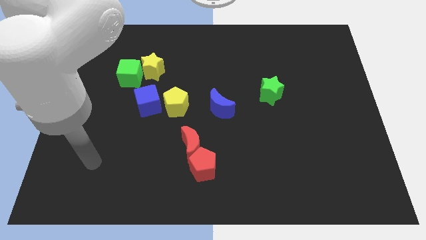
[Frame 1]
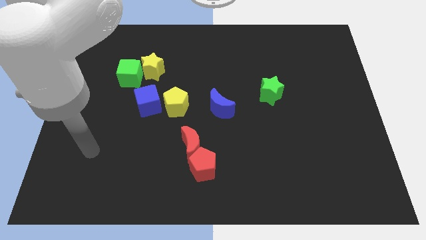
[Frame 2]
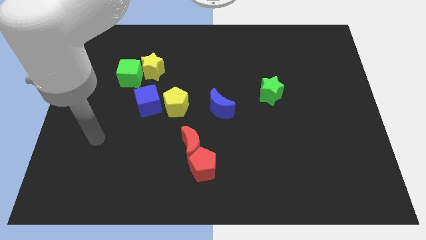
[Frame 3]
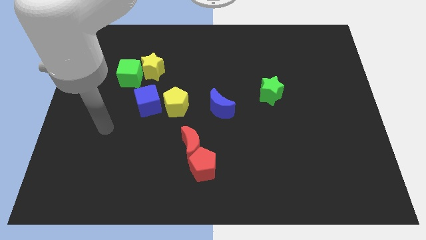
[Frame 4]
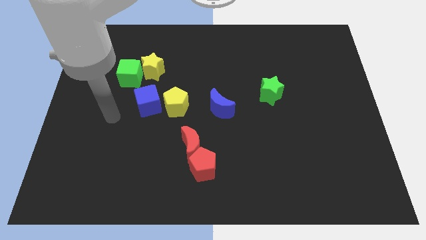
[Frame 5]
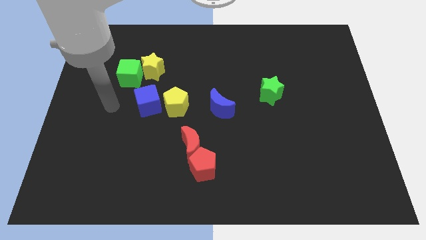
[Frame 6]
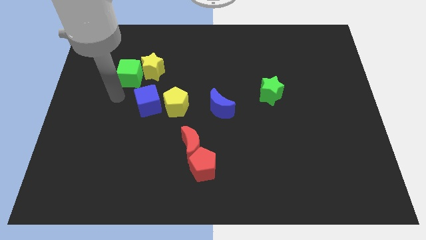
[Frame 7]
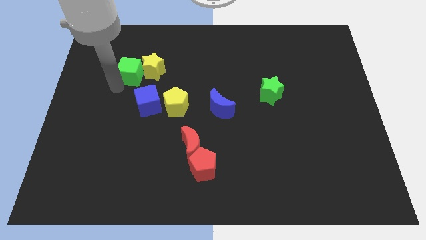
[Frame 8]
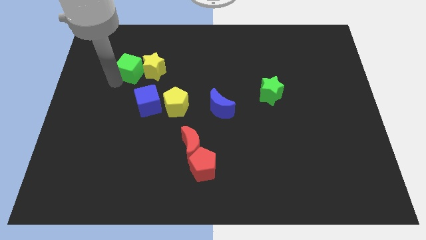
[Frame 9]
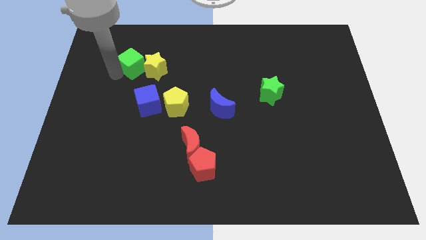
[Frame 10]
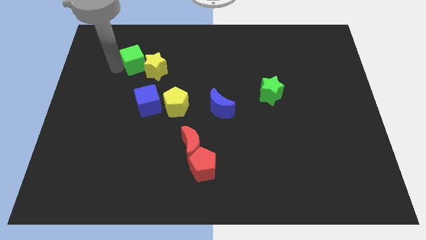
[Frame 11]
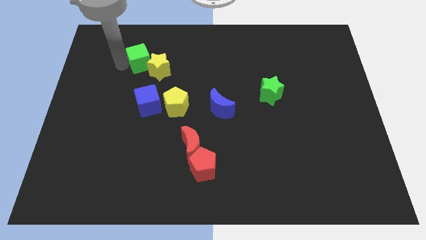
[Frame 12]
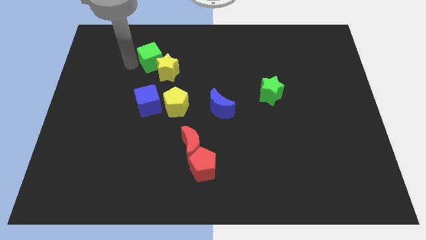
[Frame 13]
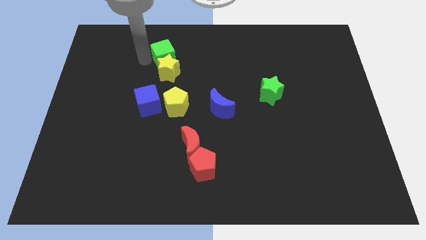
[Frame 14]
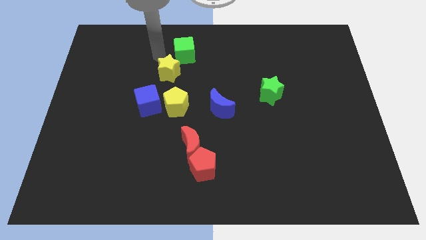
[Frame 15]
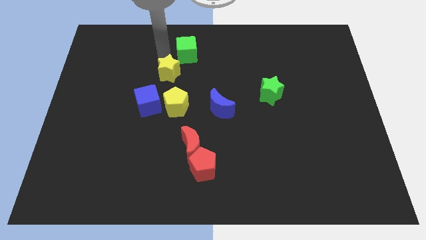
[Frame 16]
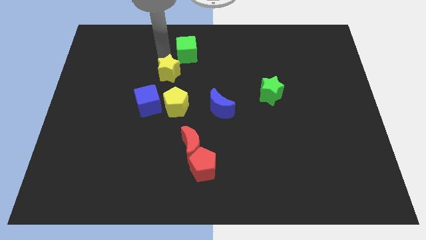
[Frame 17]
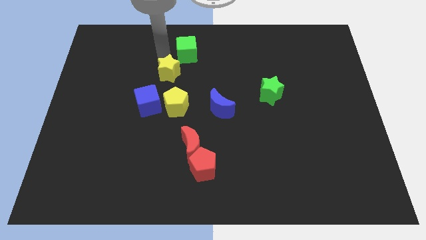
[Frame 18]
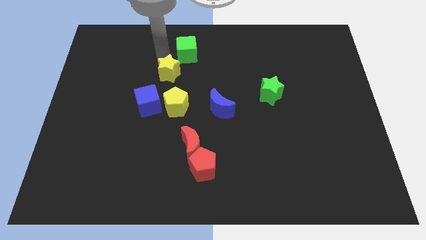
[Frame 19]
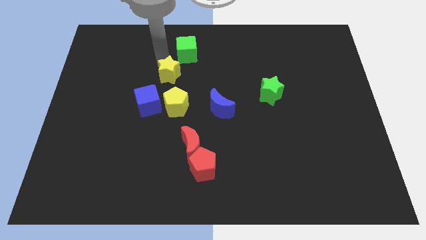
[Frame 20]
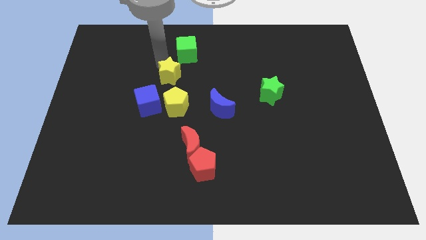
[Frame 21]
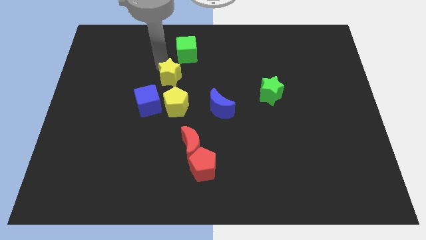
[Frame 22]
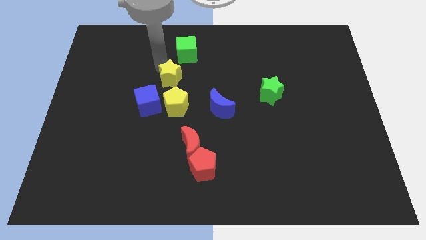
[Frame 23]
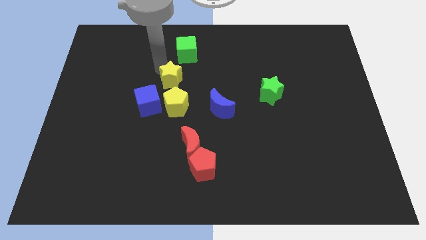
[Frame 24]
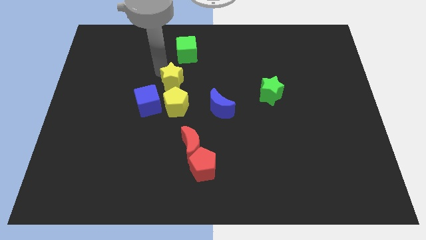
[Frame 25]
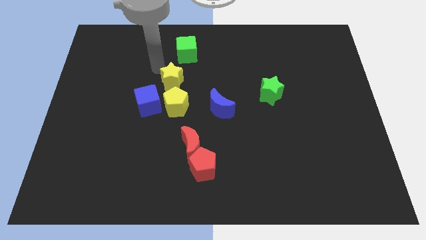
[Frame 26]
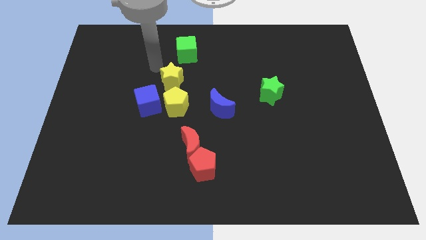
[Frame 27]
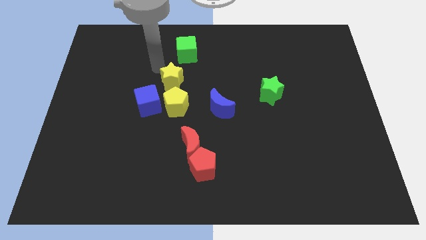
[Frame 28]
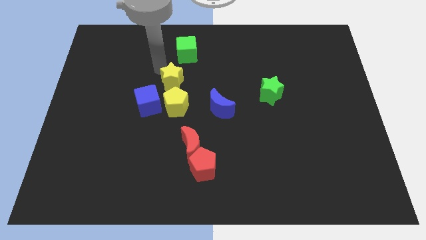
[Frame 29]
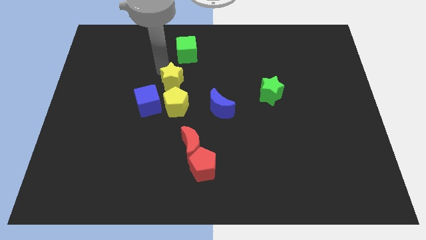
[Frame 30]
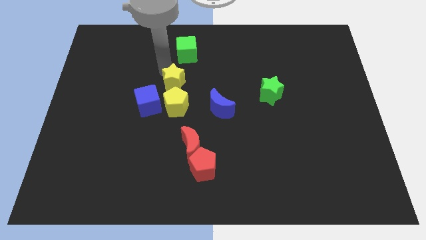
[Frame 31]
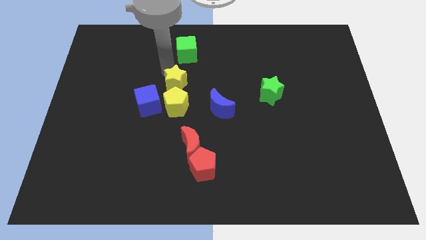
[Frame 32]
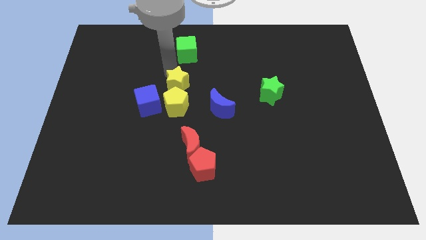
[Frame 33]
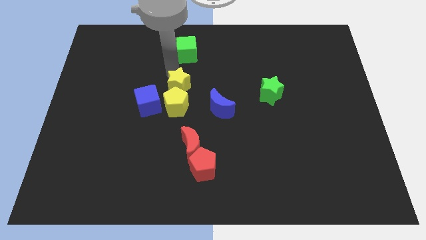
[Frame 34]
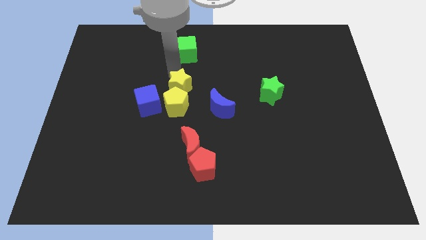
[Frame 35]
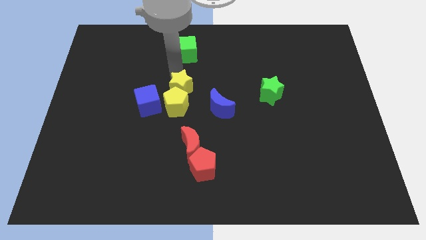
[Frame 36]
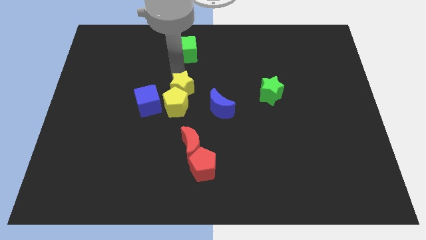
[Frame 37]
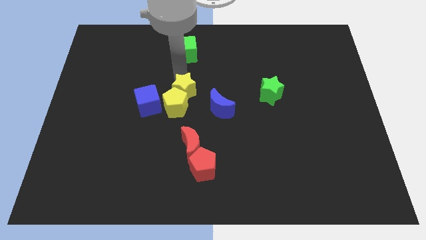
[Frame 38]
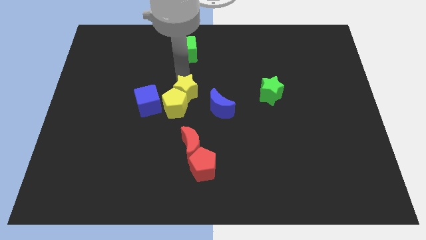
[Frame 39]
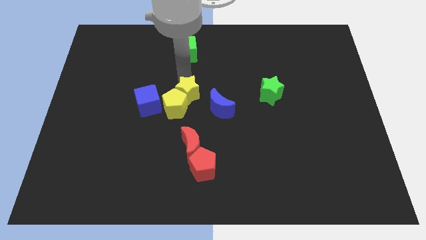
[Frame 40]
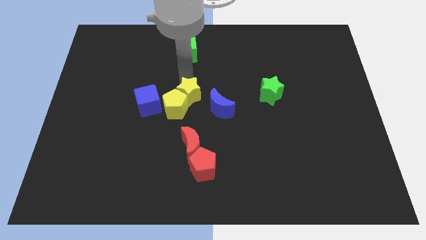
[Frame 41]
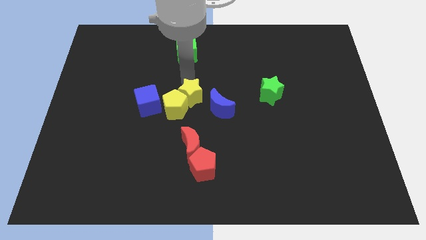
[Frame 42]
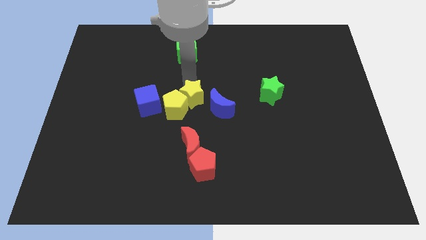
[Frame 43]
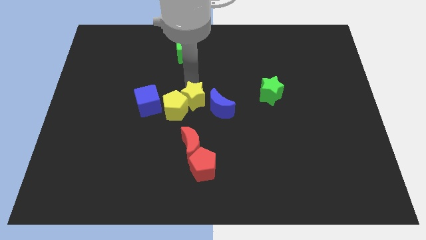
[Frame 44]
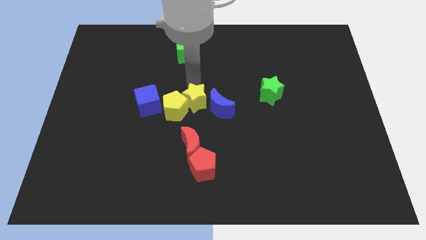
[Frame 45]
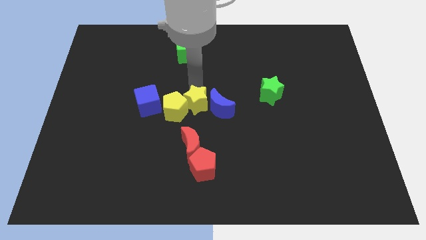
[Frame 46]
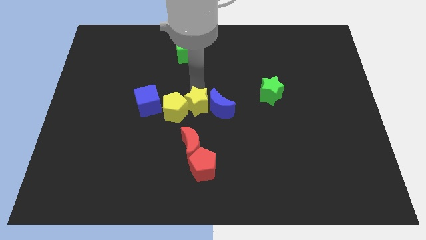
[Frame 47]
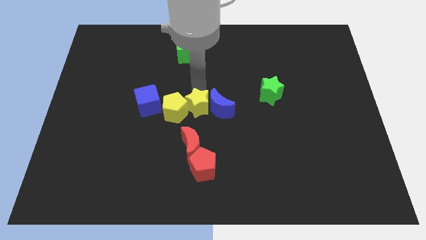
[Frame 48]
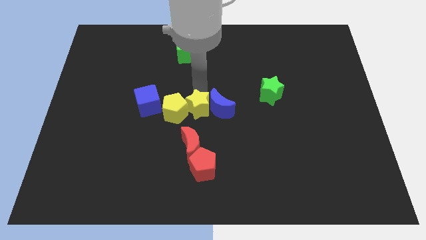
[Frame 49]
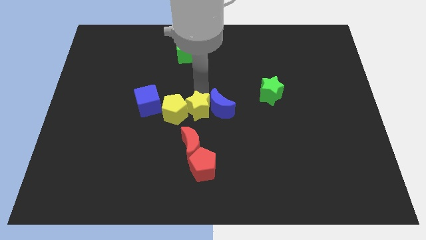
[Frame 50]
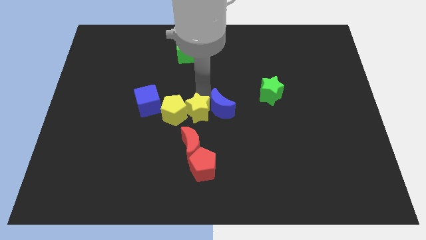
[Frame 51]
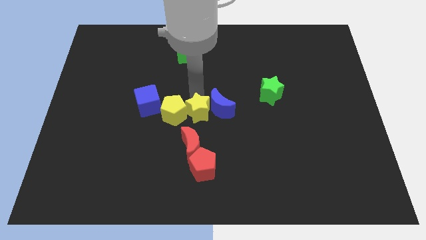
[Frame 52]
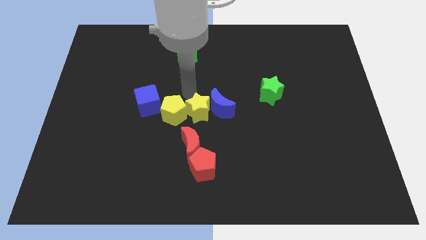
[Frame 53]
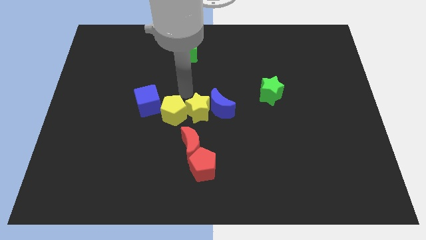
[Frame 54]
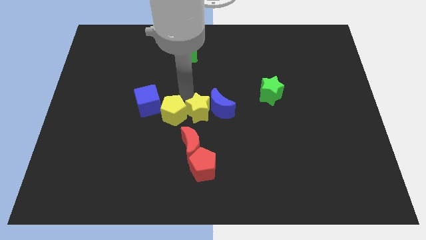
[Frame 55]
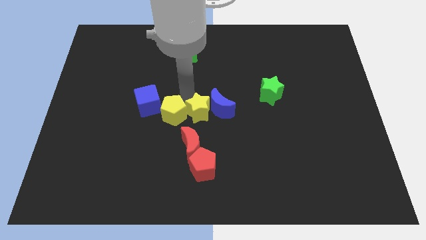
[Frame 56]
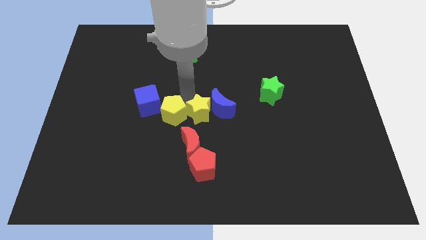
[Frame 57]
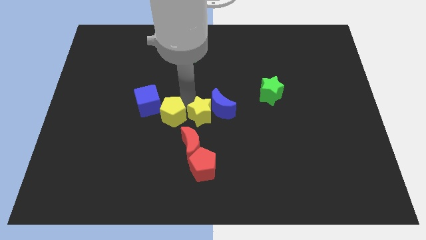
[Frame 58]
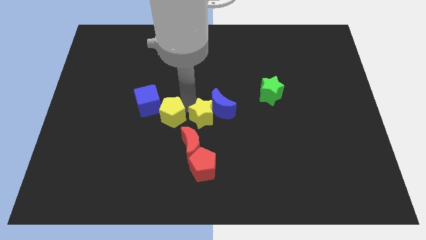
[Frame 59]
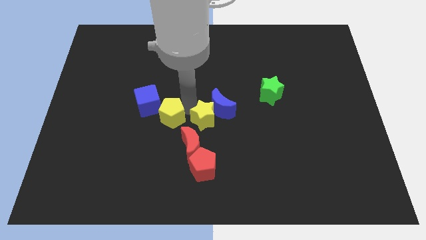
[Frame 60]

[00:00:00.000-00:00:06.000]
push the yellow star downwards and to the right diagonally

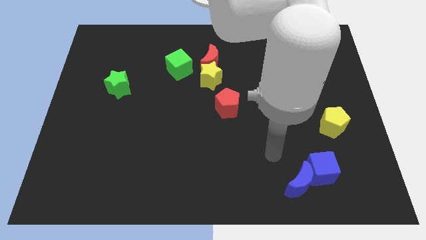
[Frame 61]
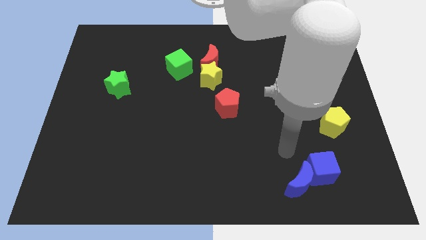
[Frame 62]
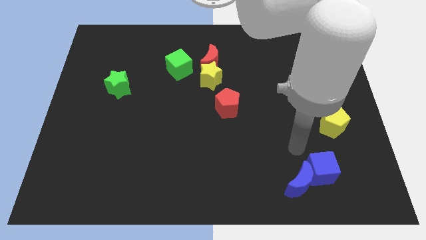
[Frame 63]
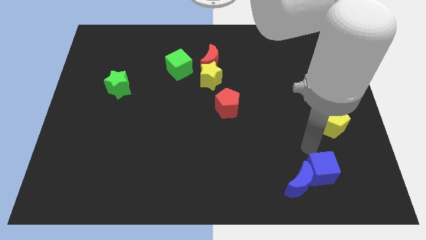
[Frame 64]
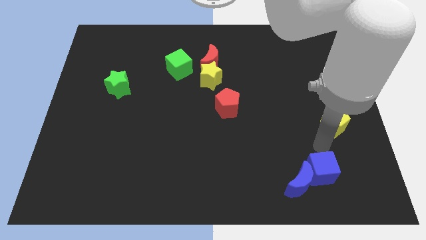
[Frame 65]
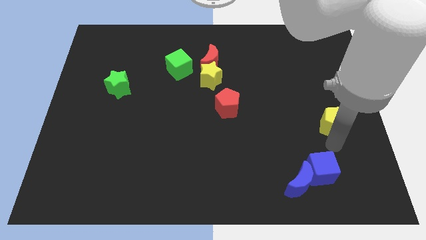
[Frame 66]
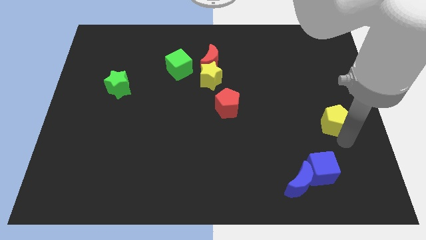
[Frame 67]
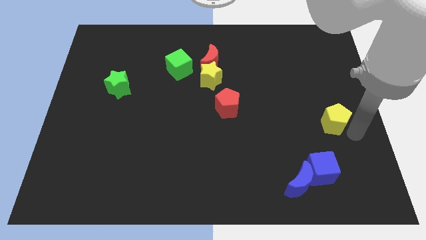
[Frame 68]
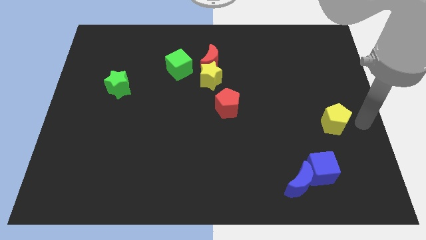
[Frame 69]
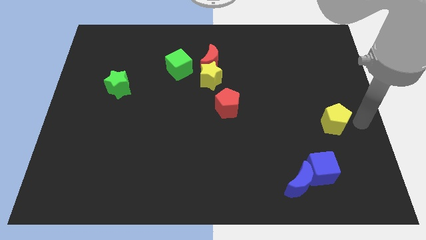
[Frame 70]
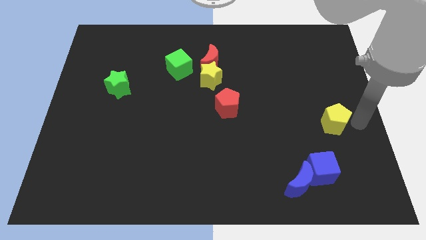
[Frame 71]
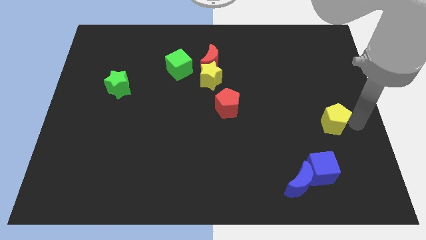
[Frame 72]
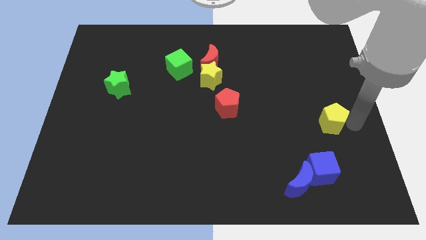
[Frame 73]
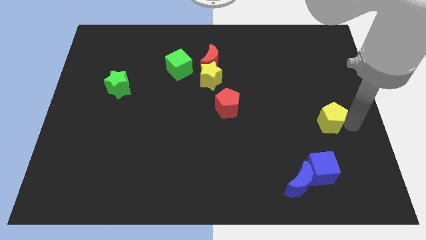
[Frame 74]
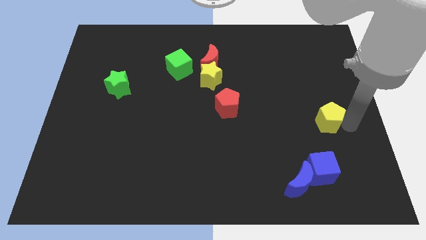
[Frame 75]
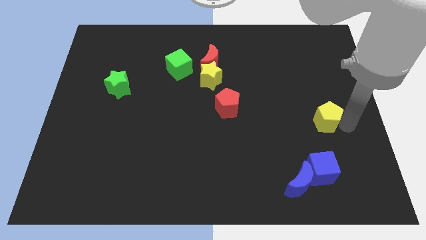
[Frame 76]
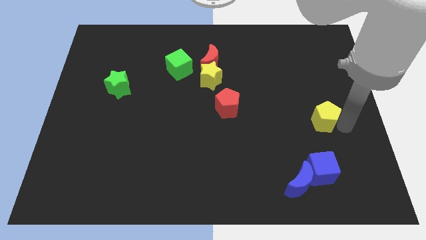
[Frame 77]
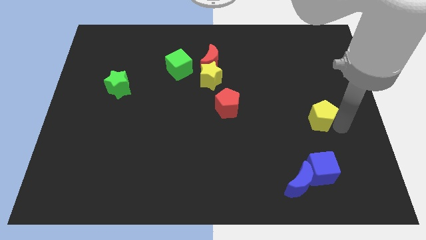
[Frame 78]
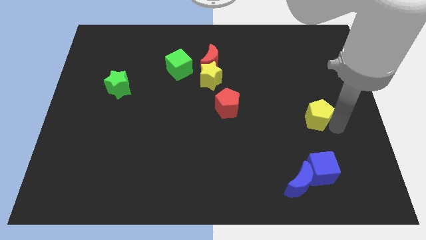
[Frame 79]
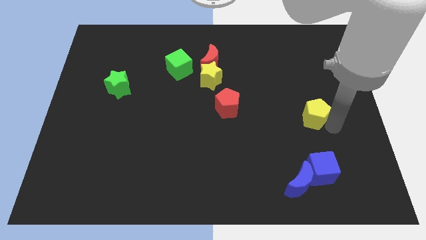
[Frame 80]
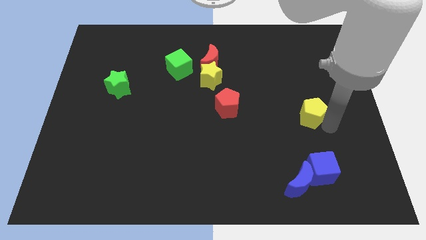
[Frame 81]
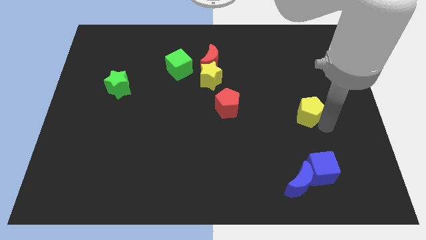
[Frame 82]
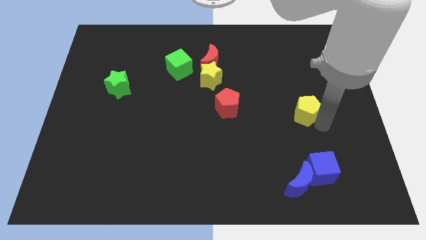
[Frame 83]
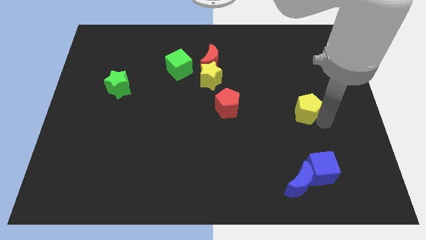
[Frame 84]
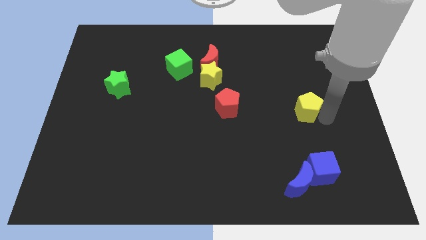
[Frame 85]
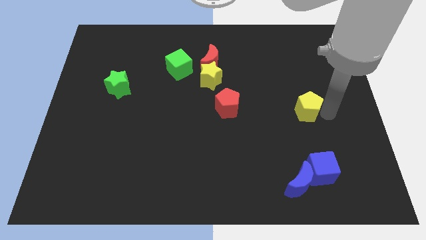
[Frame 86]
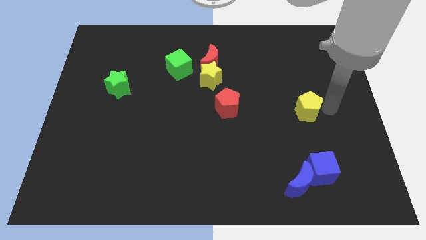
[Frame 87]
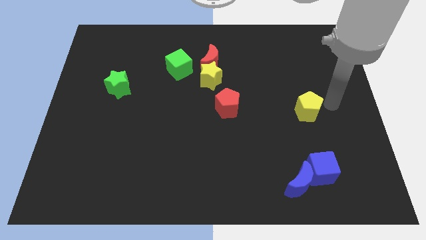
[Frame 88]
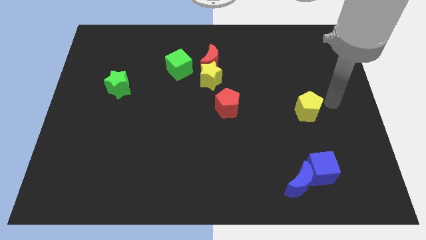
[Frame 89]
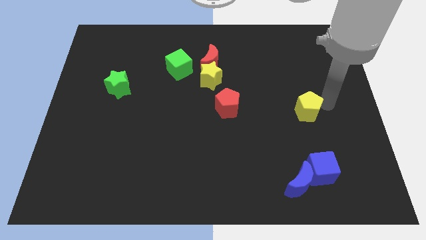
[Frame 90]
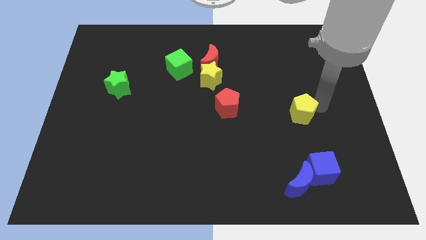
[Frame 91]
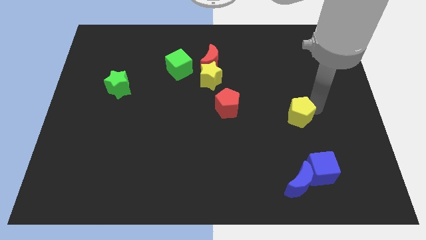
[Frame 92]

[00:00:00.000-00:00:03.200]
slide the yellow pentagon left somewhat
